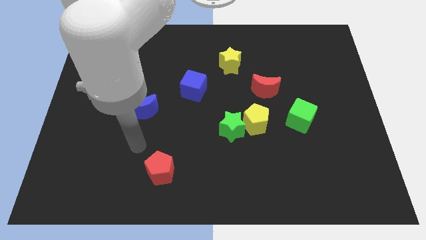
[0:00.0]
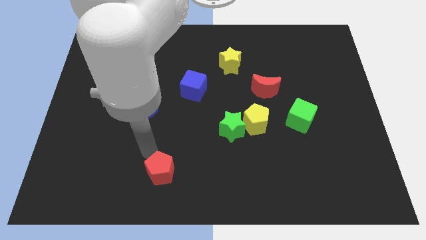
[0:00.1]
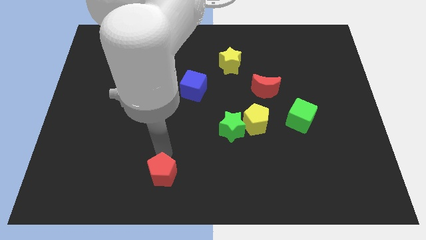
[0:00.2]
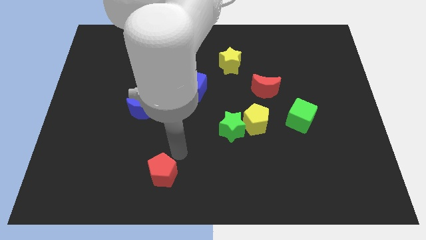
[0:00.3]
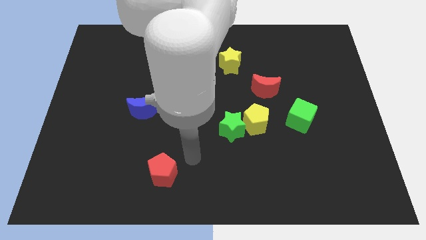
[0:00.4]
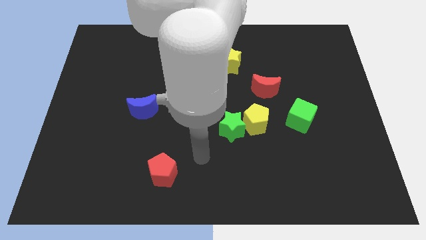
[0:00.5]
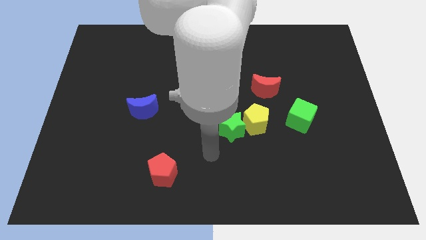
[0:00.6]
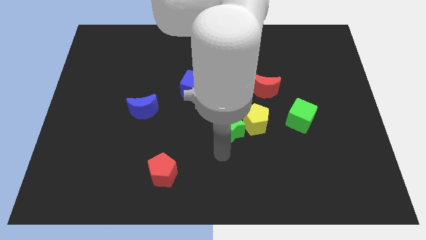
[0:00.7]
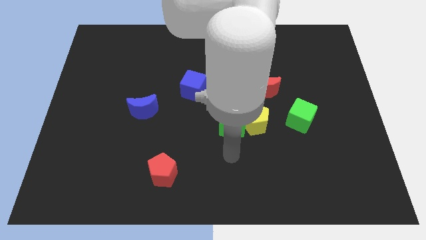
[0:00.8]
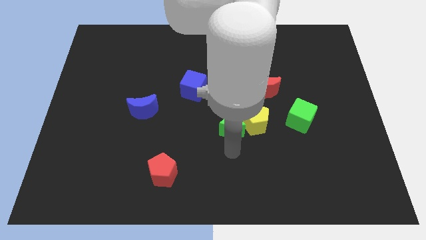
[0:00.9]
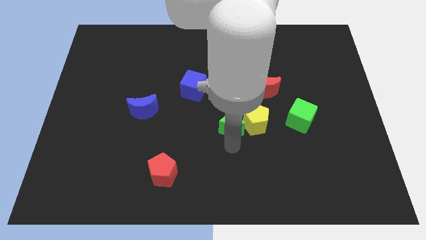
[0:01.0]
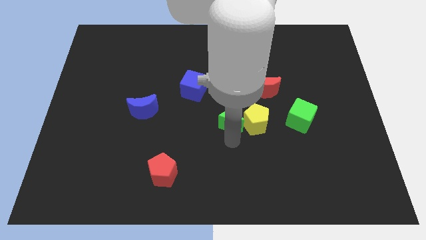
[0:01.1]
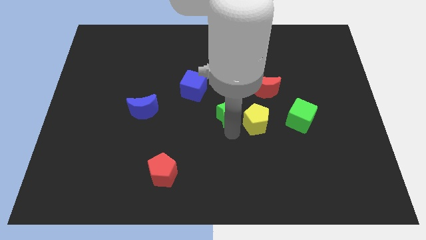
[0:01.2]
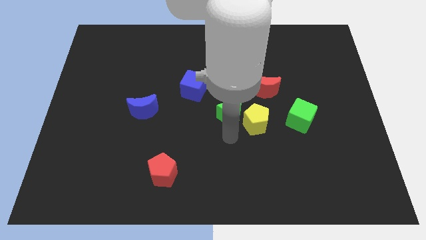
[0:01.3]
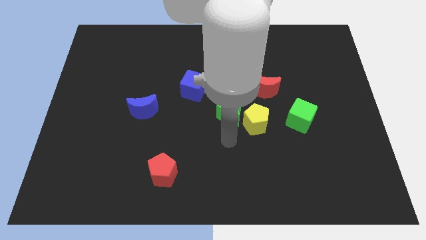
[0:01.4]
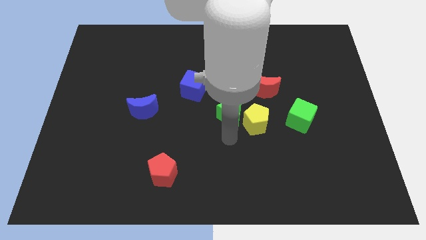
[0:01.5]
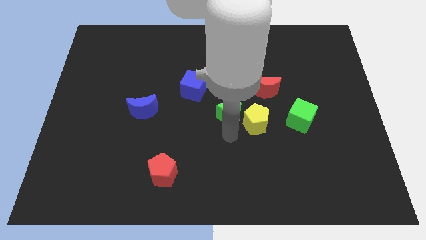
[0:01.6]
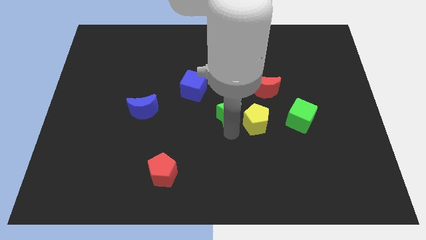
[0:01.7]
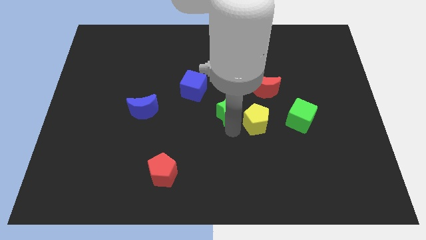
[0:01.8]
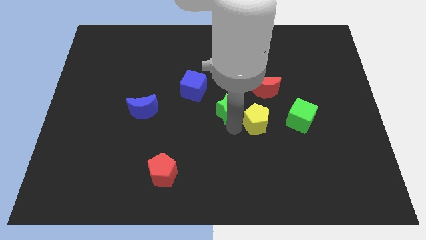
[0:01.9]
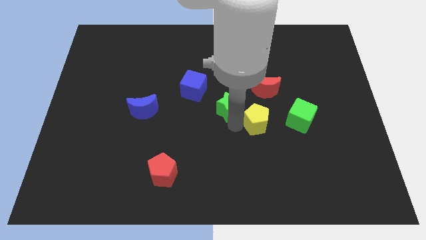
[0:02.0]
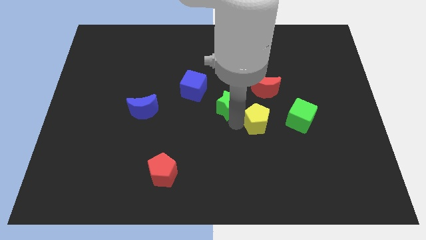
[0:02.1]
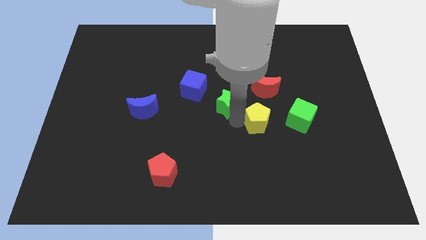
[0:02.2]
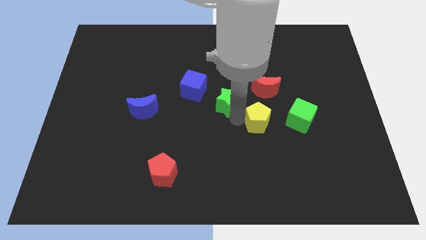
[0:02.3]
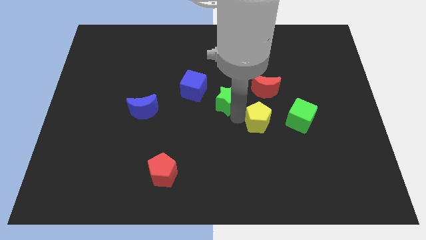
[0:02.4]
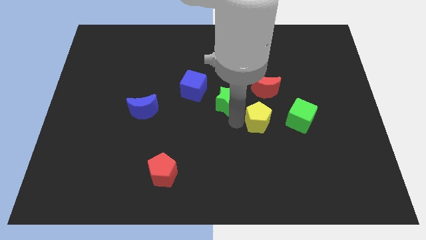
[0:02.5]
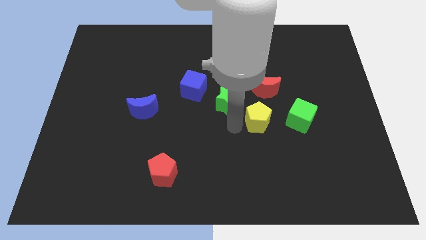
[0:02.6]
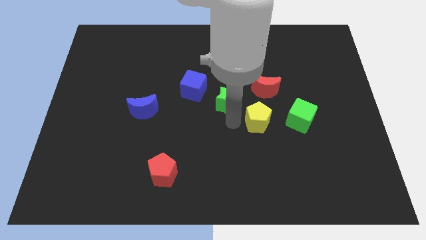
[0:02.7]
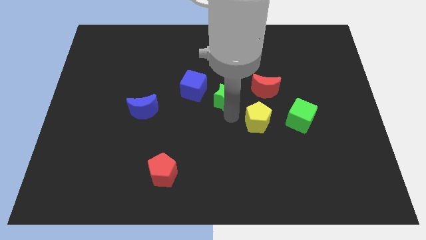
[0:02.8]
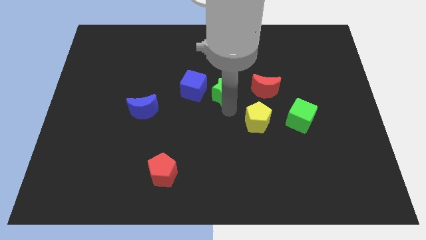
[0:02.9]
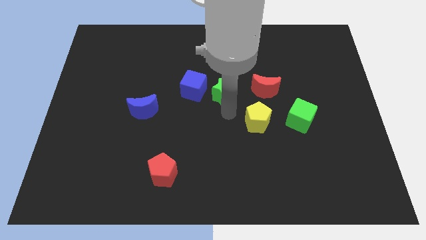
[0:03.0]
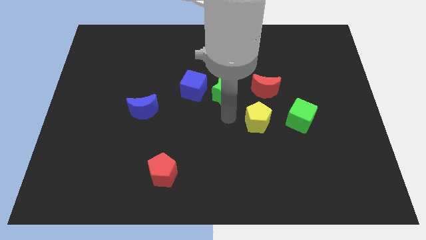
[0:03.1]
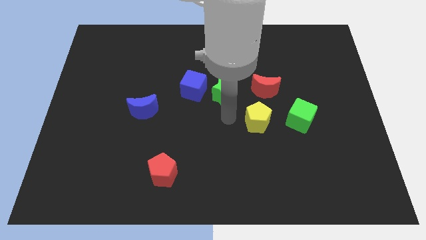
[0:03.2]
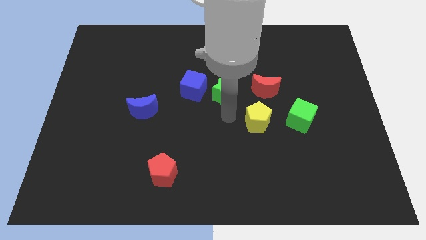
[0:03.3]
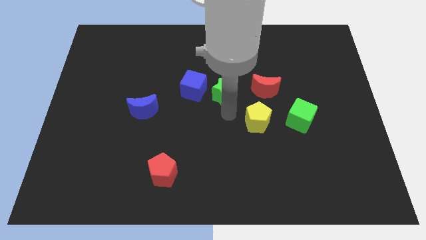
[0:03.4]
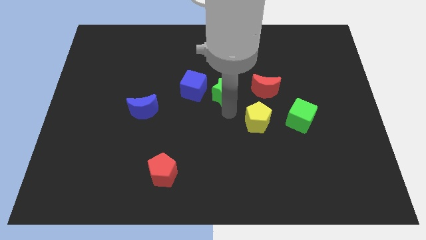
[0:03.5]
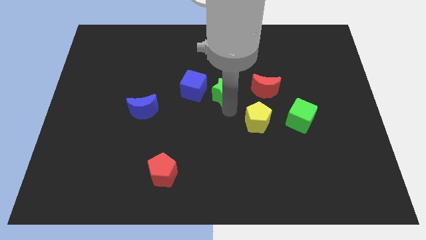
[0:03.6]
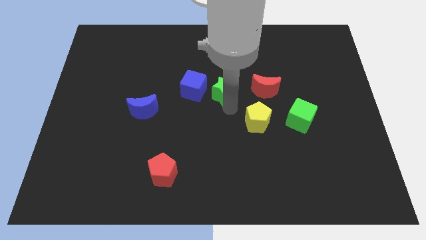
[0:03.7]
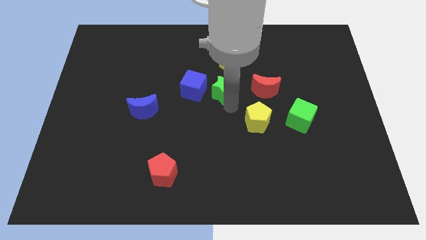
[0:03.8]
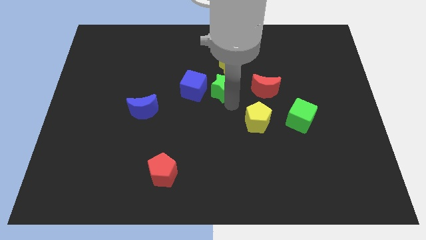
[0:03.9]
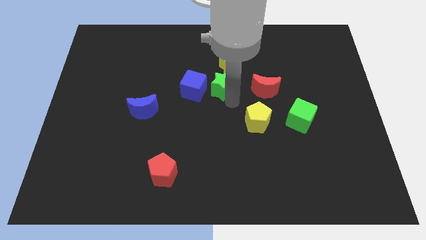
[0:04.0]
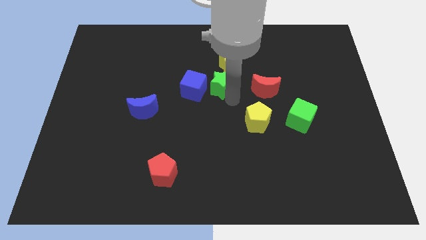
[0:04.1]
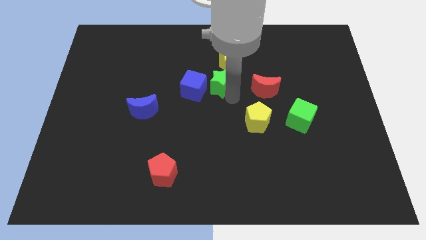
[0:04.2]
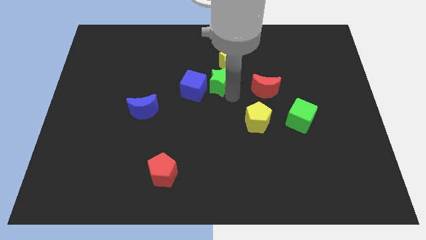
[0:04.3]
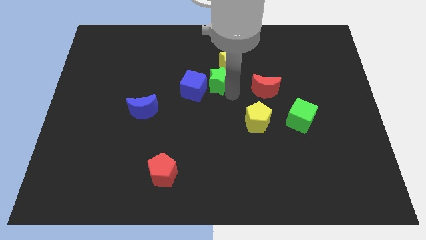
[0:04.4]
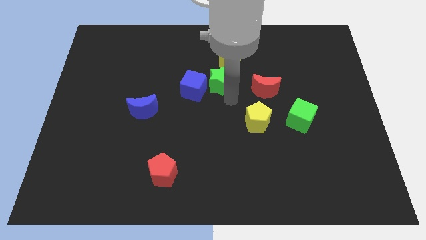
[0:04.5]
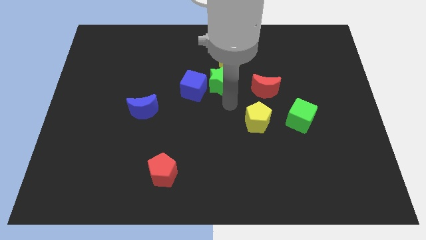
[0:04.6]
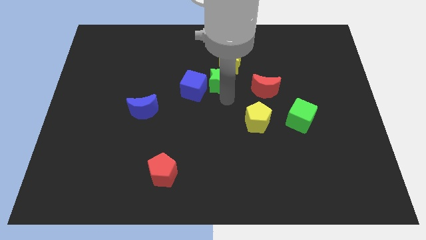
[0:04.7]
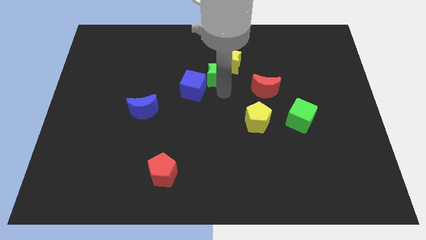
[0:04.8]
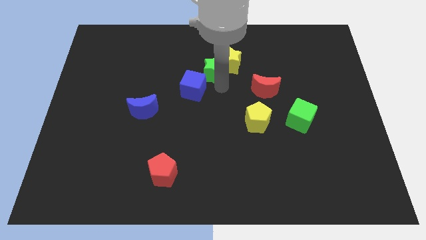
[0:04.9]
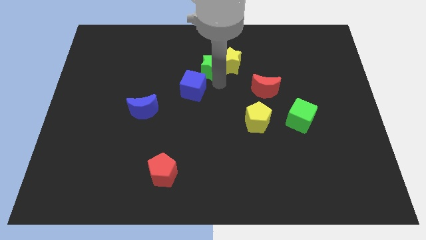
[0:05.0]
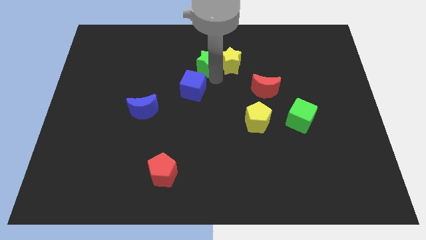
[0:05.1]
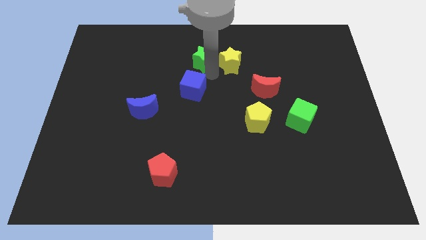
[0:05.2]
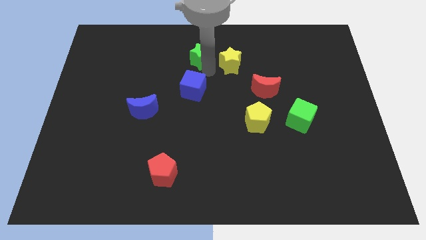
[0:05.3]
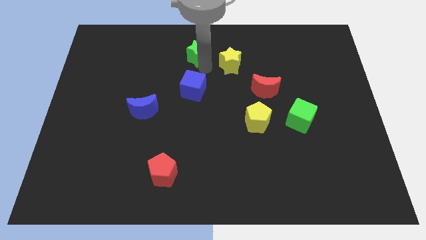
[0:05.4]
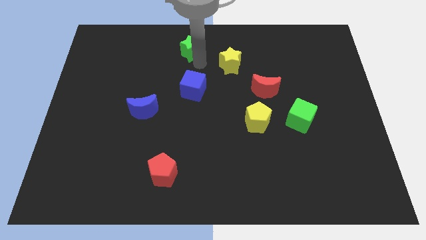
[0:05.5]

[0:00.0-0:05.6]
move the green star to the top

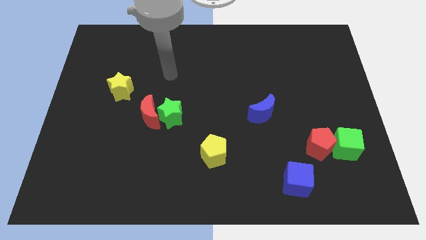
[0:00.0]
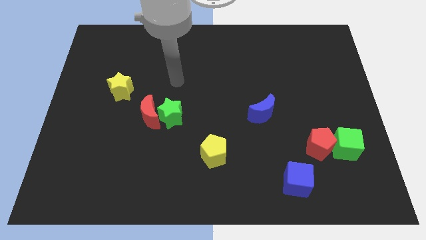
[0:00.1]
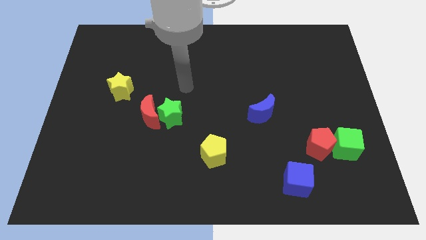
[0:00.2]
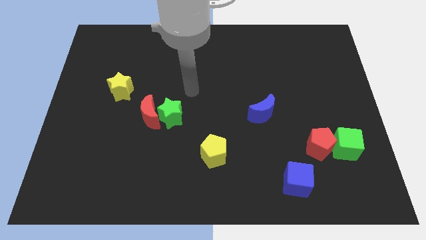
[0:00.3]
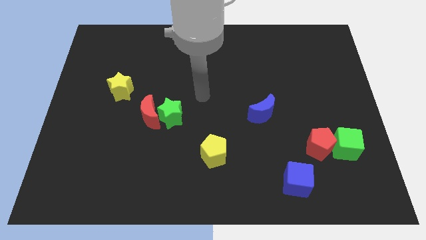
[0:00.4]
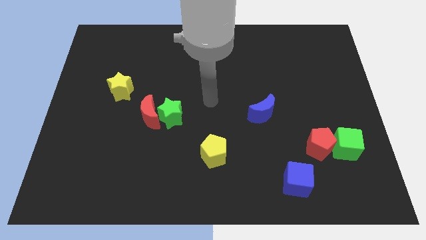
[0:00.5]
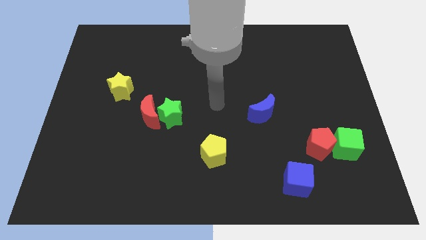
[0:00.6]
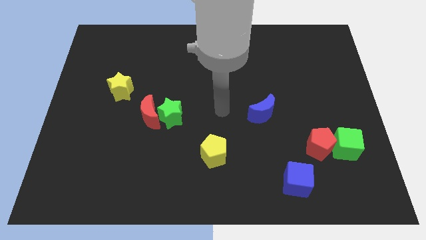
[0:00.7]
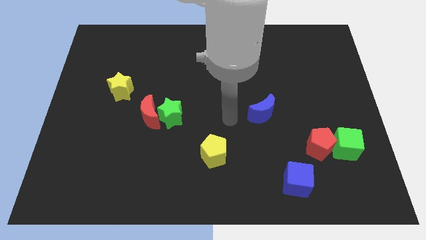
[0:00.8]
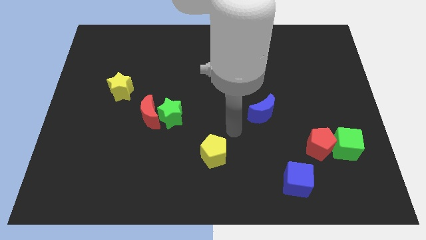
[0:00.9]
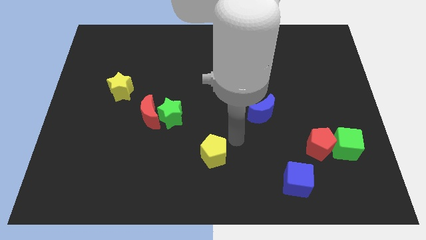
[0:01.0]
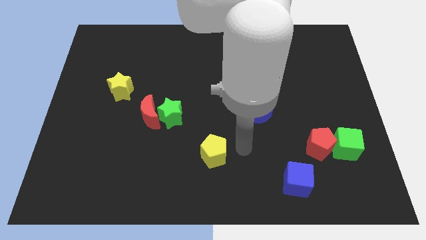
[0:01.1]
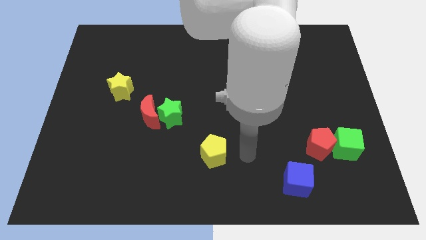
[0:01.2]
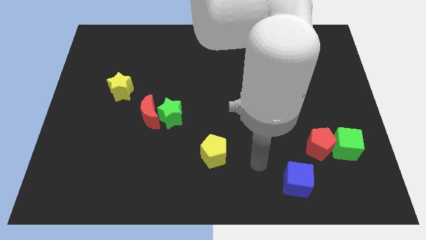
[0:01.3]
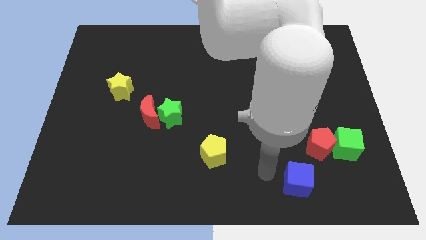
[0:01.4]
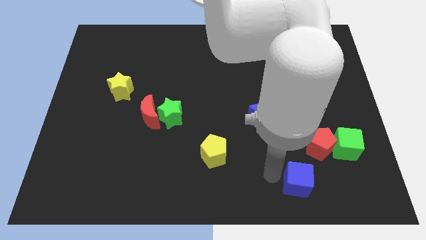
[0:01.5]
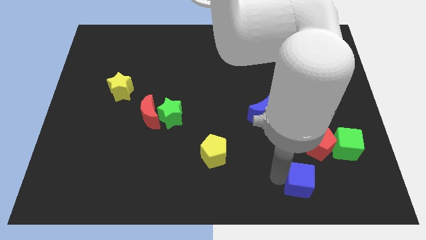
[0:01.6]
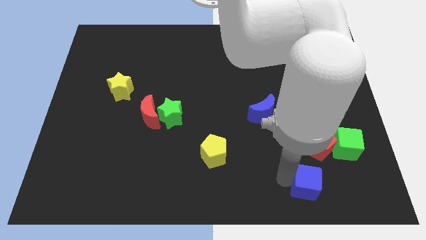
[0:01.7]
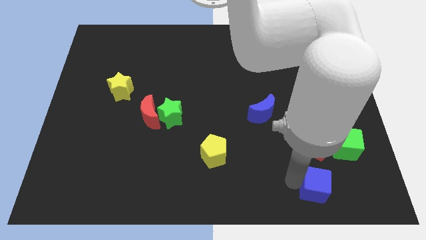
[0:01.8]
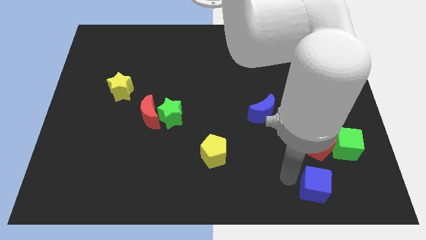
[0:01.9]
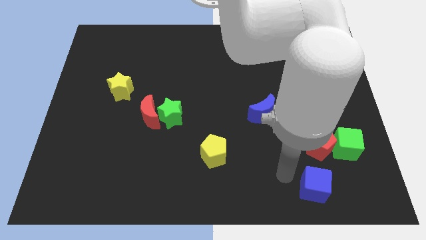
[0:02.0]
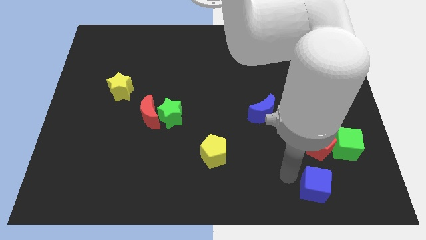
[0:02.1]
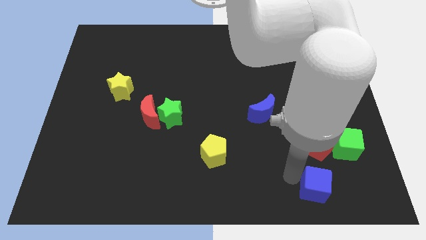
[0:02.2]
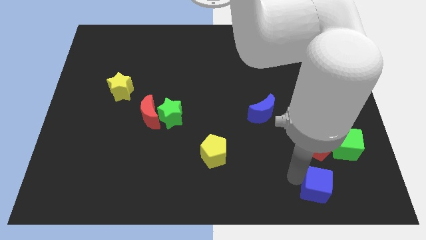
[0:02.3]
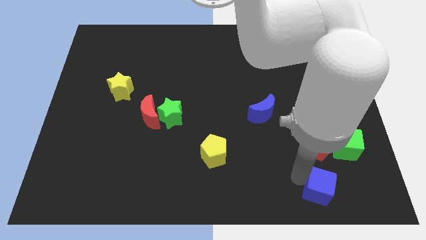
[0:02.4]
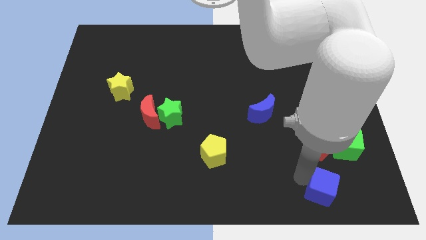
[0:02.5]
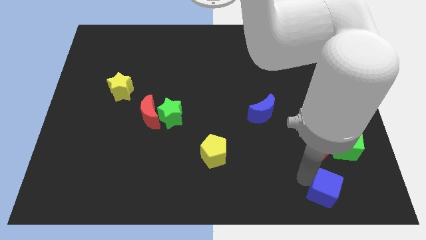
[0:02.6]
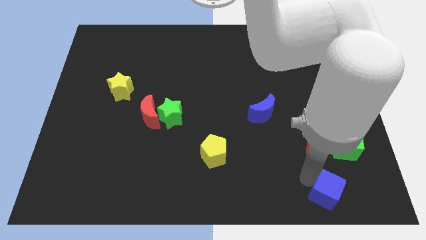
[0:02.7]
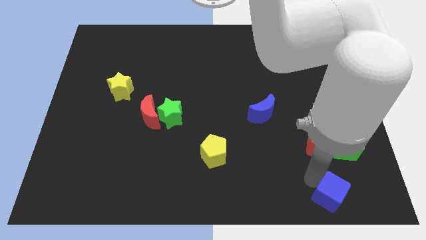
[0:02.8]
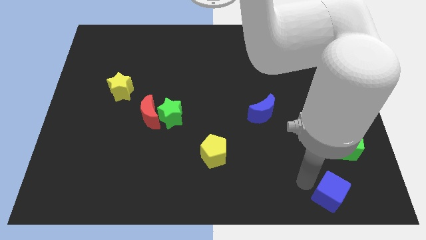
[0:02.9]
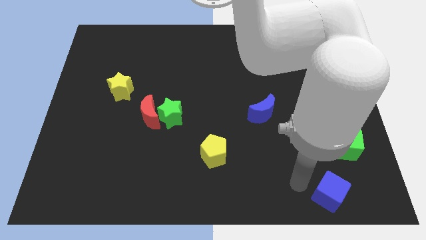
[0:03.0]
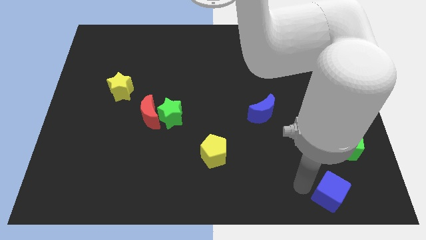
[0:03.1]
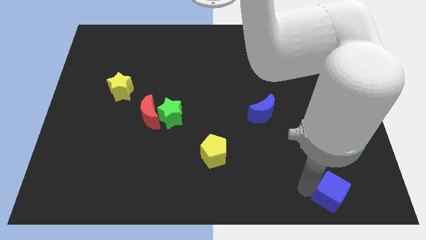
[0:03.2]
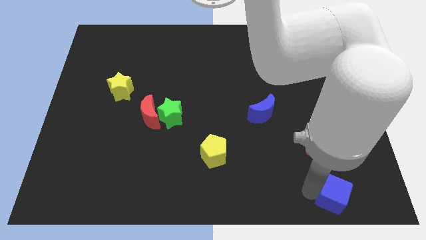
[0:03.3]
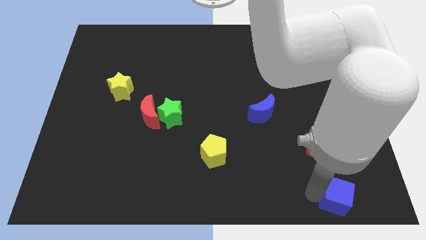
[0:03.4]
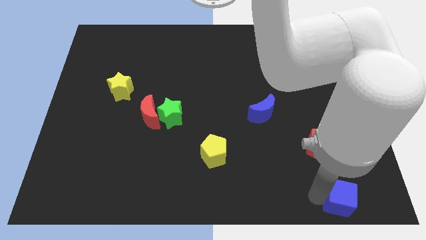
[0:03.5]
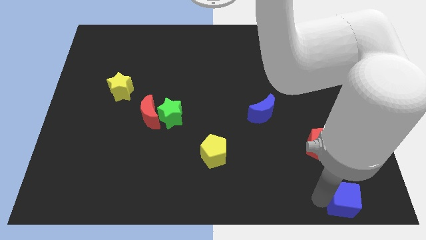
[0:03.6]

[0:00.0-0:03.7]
move the blue cube to the bottom right of the board
